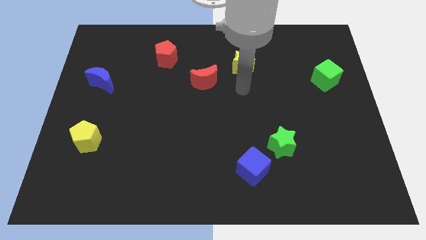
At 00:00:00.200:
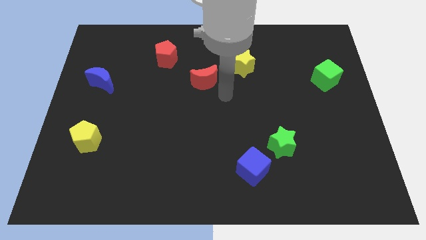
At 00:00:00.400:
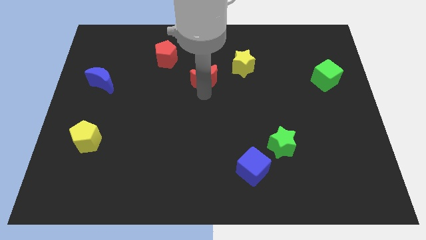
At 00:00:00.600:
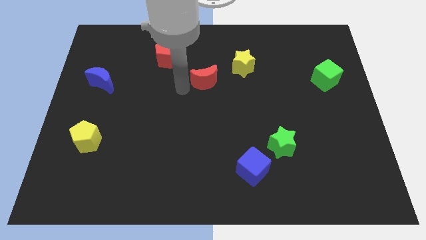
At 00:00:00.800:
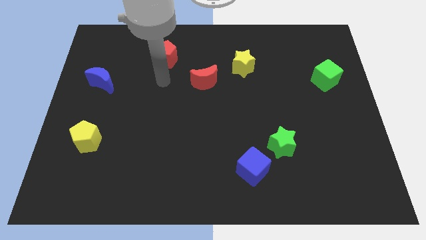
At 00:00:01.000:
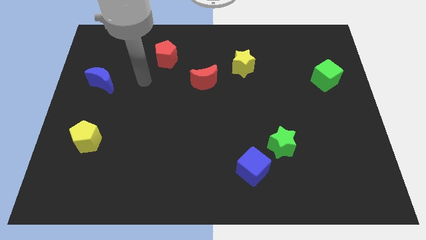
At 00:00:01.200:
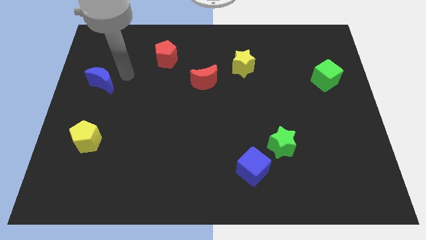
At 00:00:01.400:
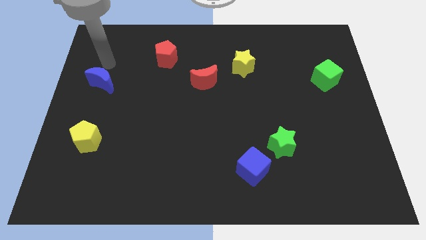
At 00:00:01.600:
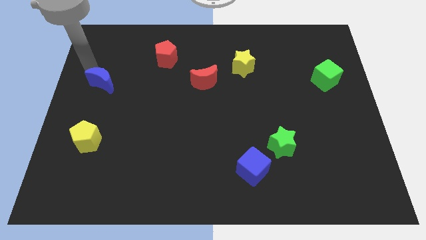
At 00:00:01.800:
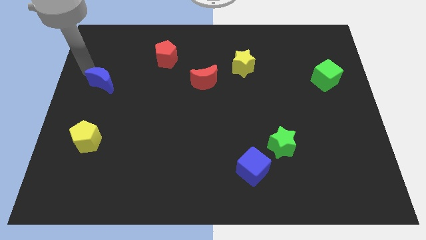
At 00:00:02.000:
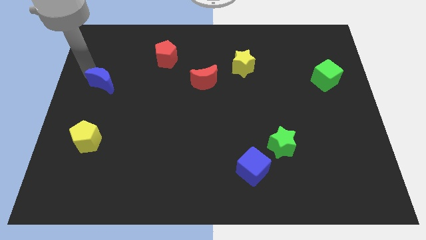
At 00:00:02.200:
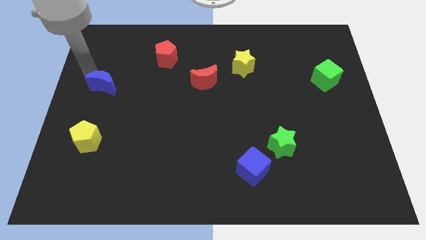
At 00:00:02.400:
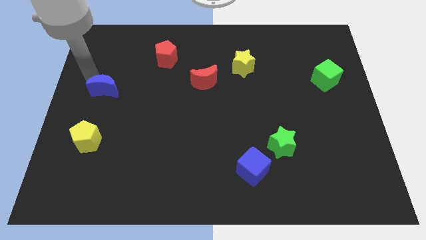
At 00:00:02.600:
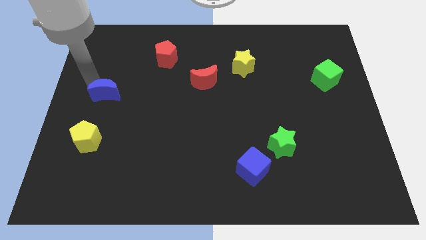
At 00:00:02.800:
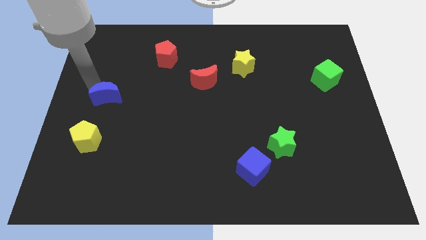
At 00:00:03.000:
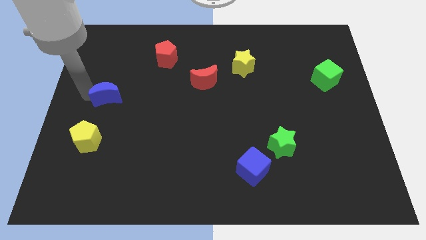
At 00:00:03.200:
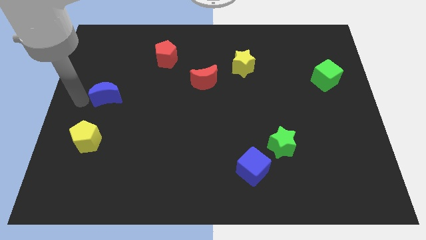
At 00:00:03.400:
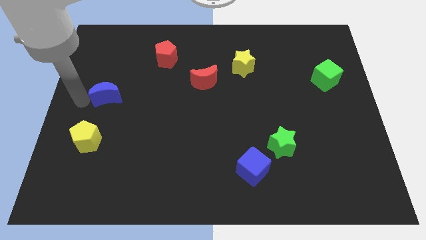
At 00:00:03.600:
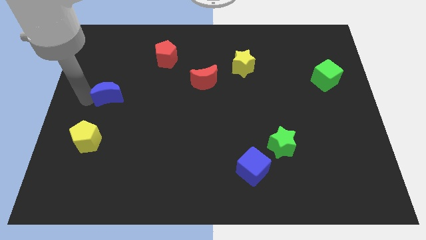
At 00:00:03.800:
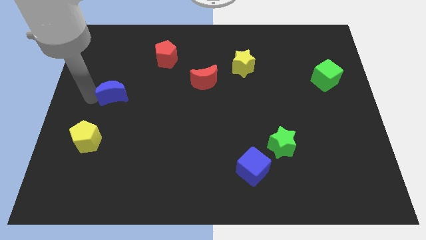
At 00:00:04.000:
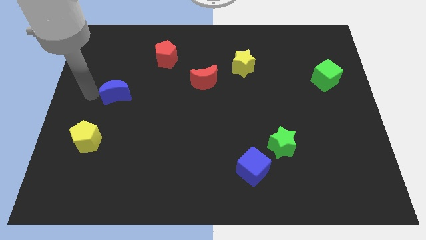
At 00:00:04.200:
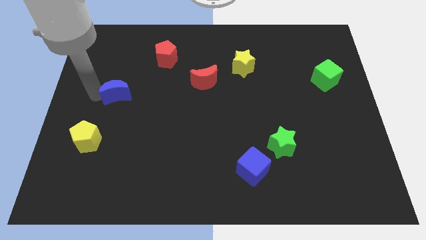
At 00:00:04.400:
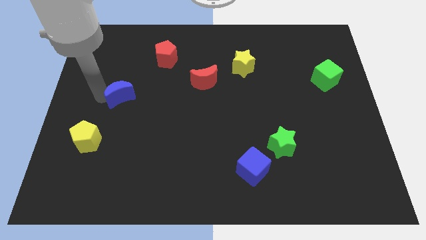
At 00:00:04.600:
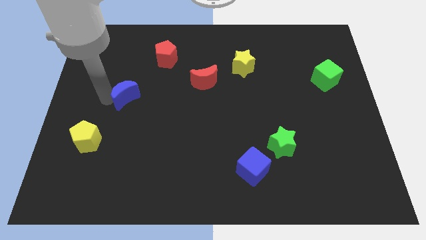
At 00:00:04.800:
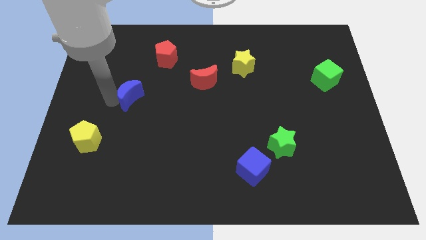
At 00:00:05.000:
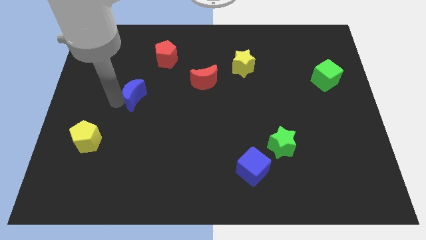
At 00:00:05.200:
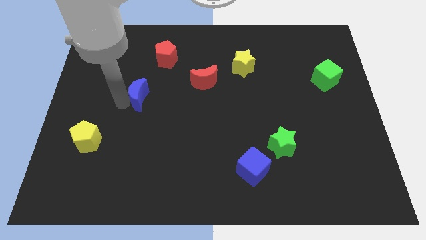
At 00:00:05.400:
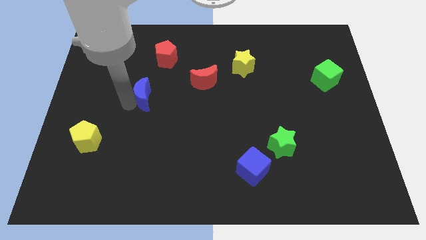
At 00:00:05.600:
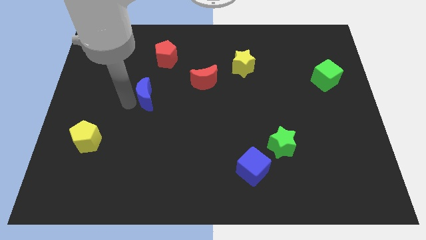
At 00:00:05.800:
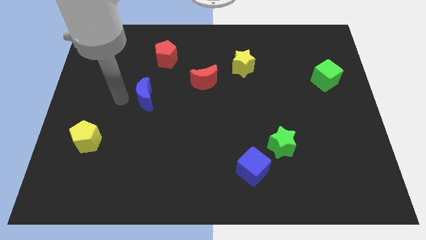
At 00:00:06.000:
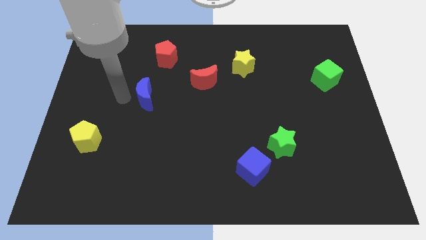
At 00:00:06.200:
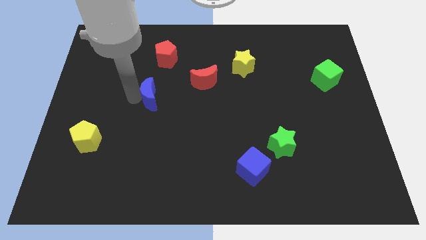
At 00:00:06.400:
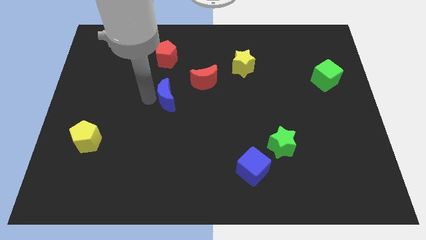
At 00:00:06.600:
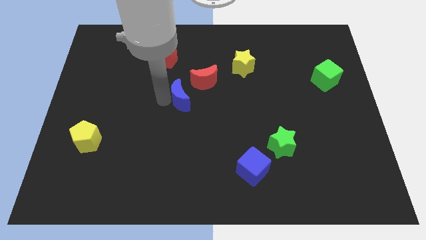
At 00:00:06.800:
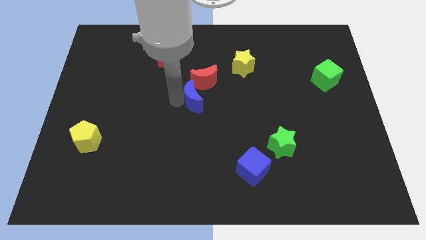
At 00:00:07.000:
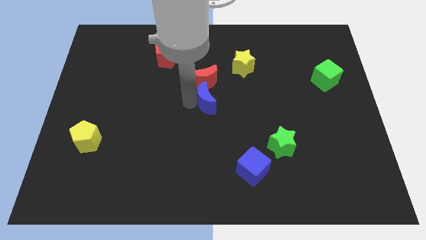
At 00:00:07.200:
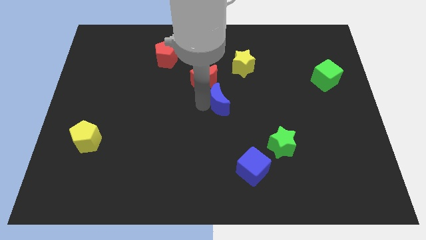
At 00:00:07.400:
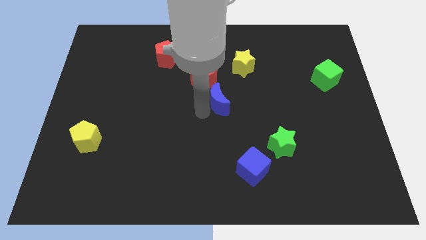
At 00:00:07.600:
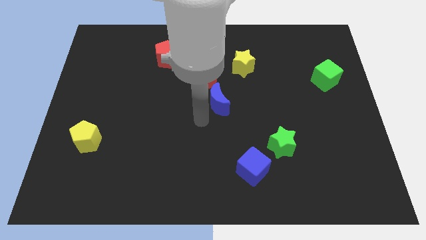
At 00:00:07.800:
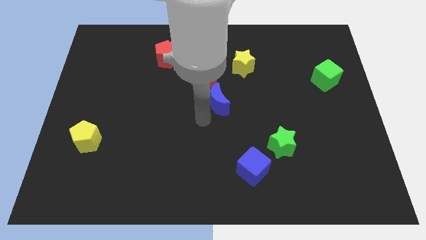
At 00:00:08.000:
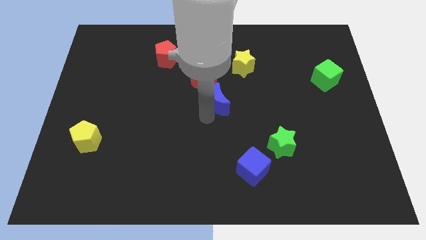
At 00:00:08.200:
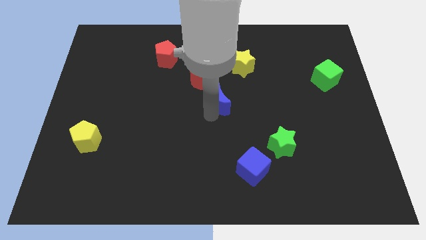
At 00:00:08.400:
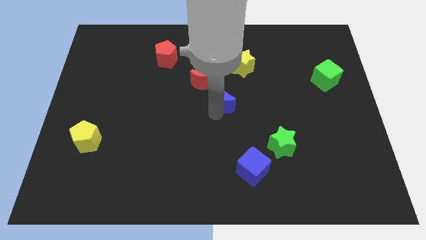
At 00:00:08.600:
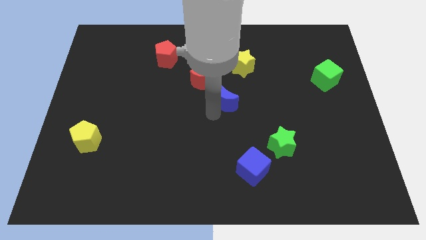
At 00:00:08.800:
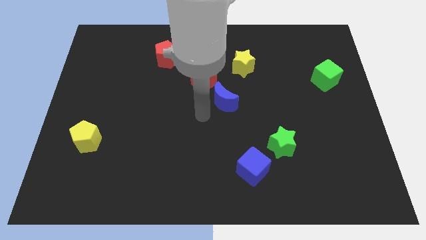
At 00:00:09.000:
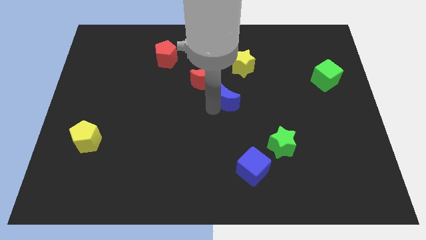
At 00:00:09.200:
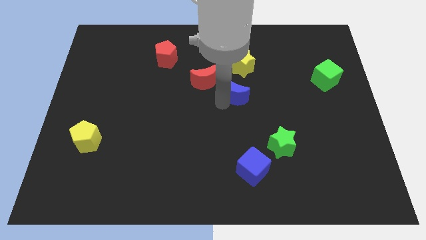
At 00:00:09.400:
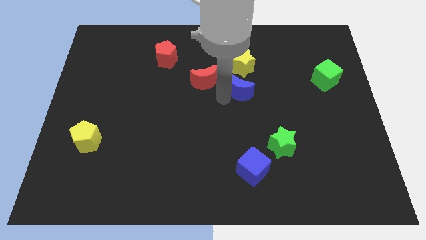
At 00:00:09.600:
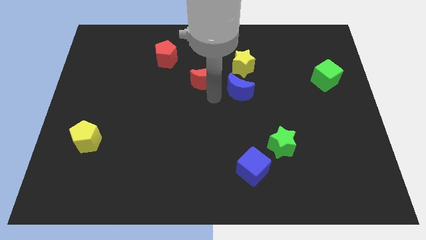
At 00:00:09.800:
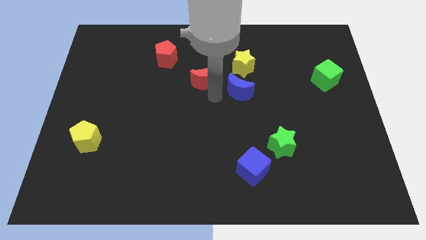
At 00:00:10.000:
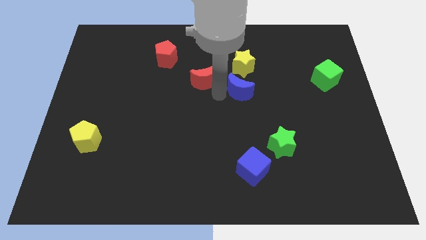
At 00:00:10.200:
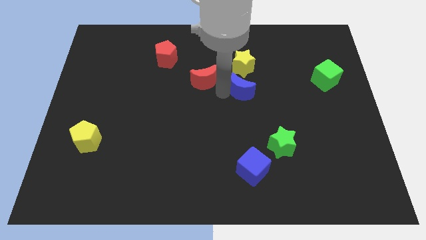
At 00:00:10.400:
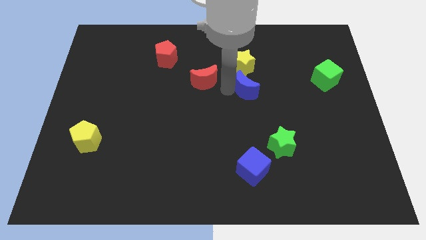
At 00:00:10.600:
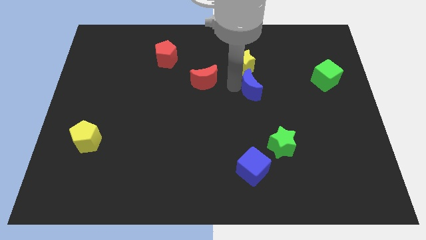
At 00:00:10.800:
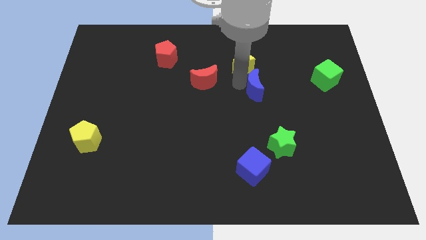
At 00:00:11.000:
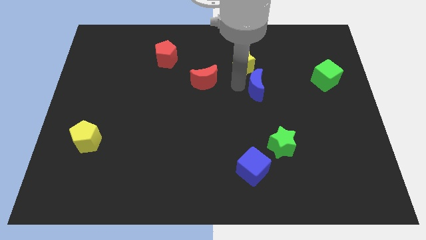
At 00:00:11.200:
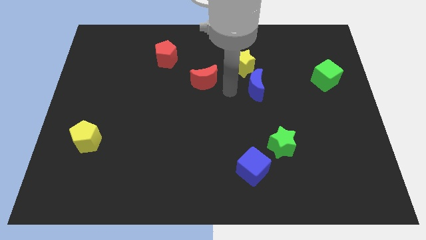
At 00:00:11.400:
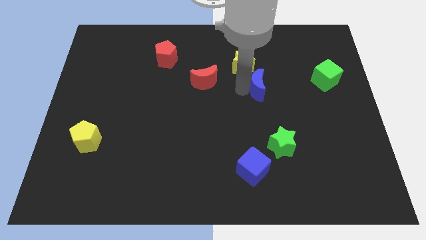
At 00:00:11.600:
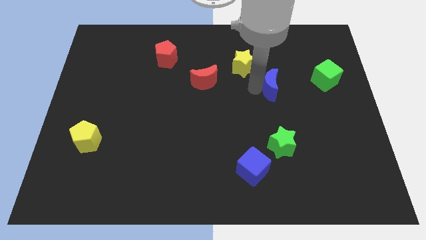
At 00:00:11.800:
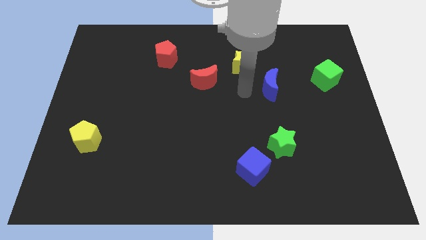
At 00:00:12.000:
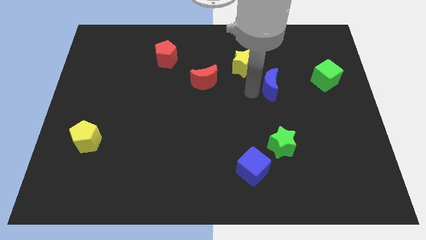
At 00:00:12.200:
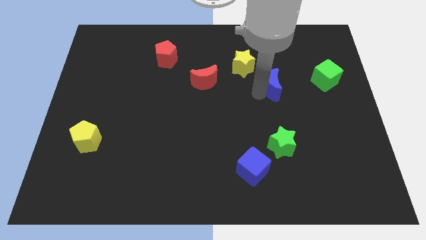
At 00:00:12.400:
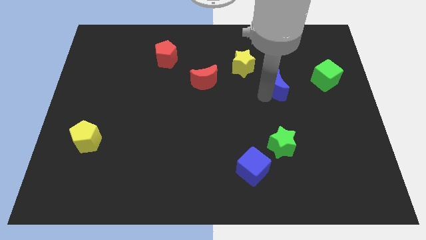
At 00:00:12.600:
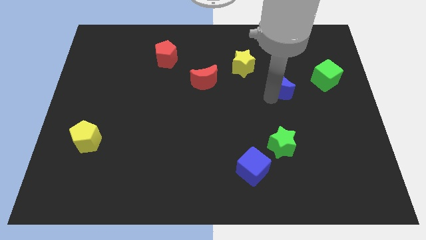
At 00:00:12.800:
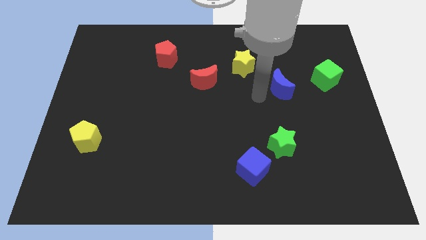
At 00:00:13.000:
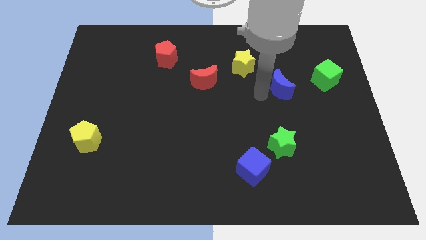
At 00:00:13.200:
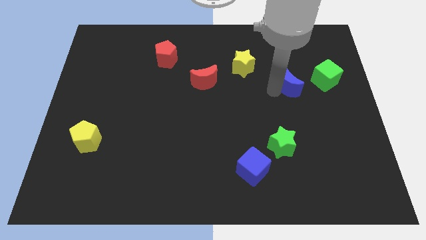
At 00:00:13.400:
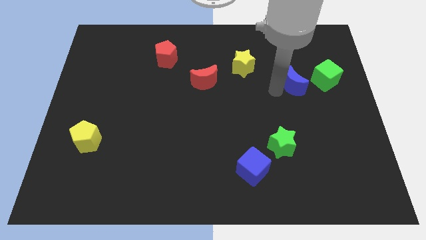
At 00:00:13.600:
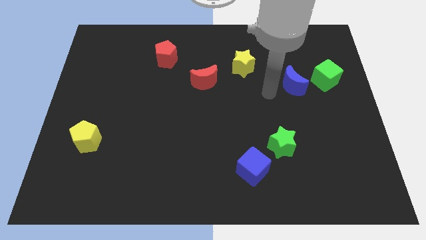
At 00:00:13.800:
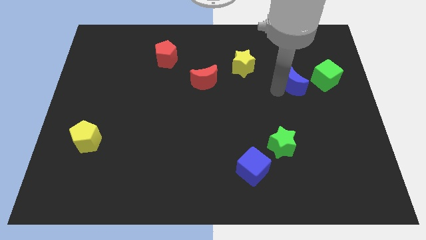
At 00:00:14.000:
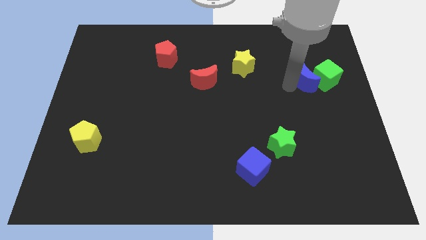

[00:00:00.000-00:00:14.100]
put the blue moon towards the green cube
